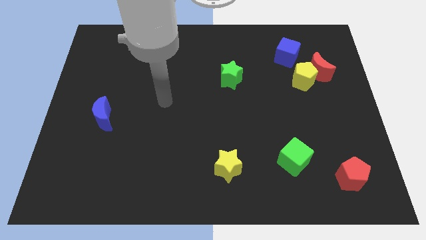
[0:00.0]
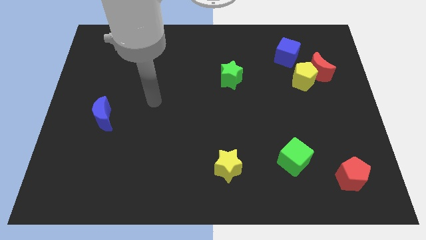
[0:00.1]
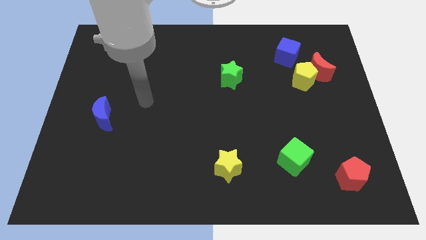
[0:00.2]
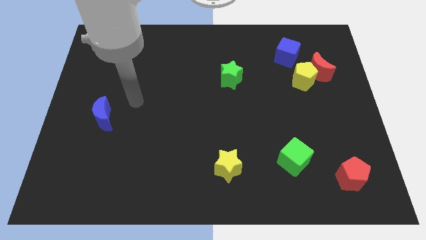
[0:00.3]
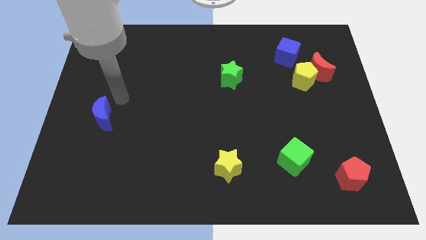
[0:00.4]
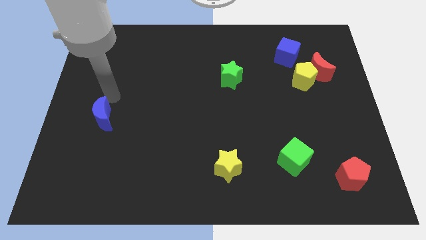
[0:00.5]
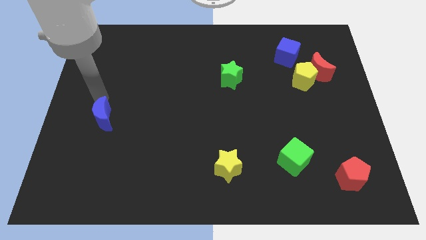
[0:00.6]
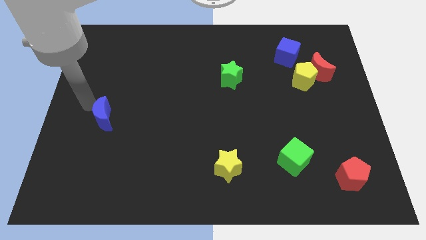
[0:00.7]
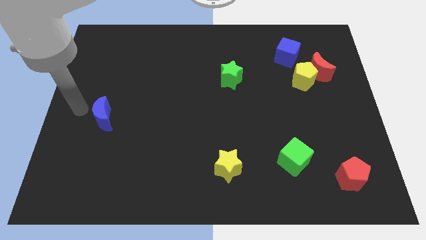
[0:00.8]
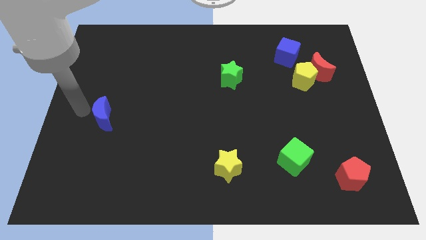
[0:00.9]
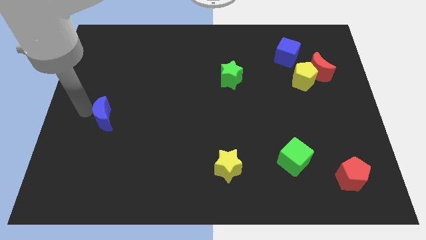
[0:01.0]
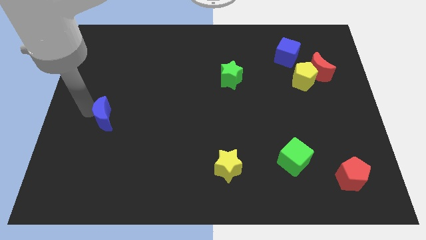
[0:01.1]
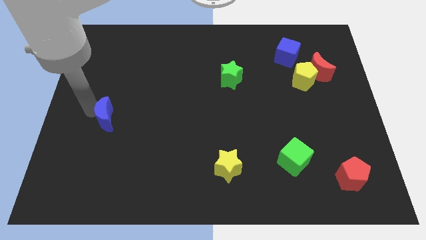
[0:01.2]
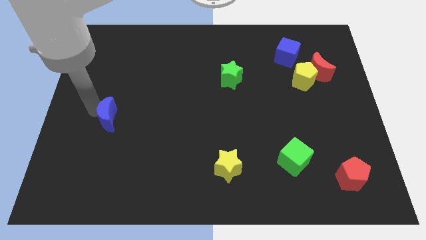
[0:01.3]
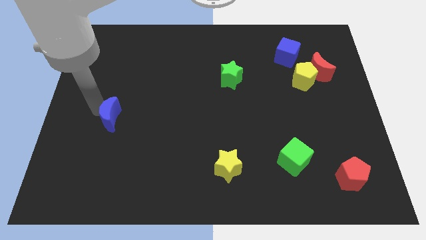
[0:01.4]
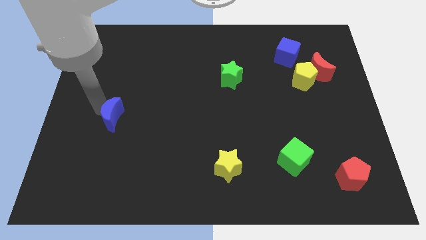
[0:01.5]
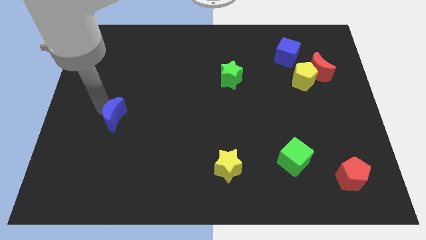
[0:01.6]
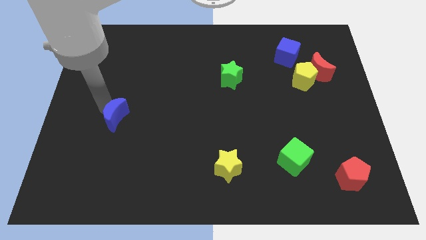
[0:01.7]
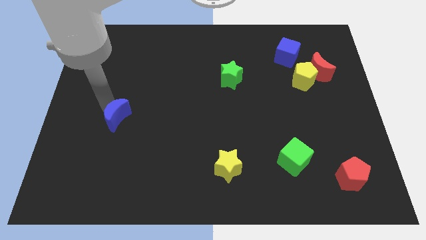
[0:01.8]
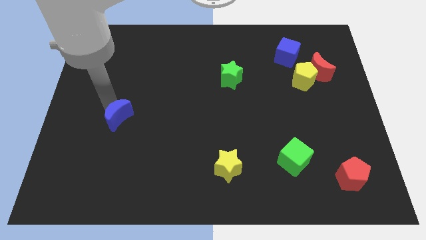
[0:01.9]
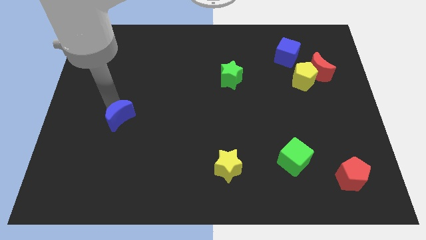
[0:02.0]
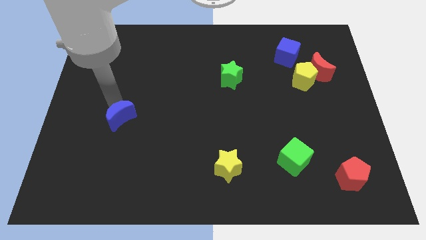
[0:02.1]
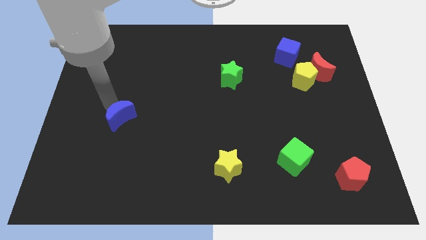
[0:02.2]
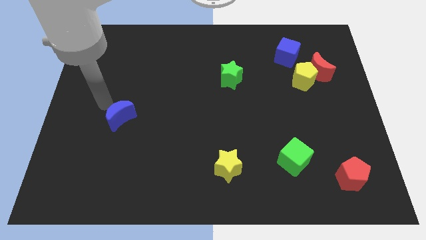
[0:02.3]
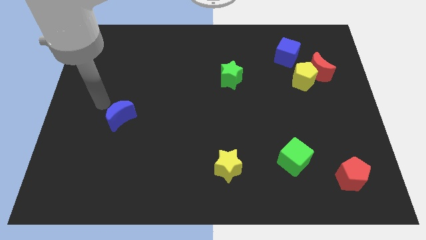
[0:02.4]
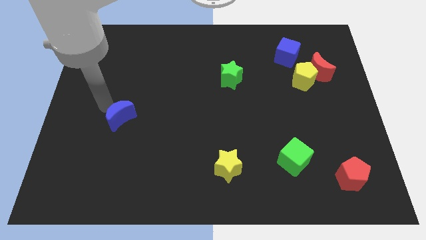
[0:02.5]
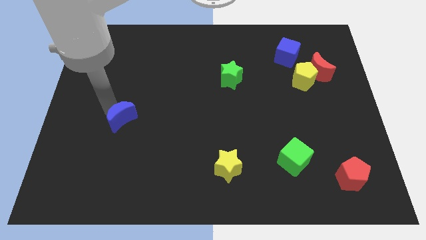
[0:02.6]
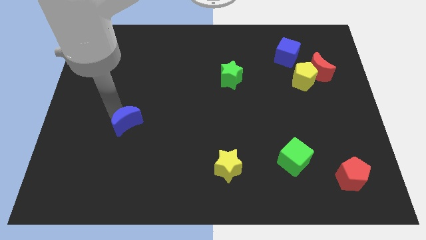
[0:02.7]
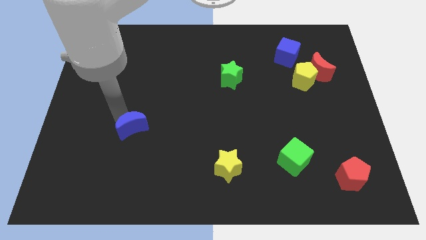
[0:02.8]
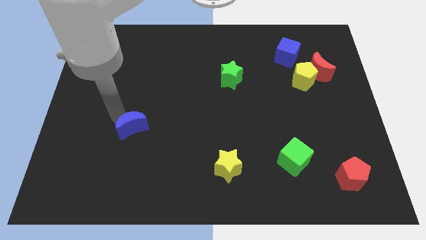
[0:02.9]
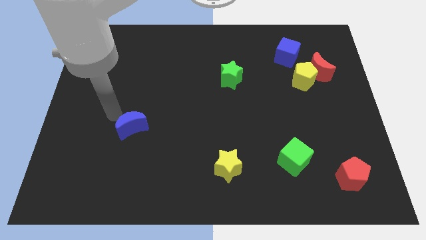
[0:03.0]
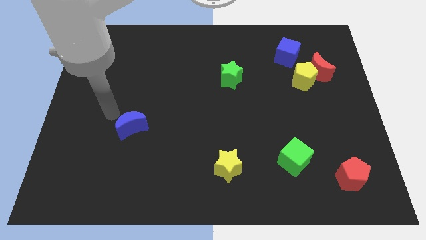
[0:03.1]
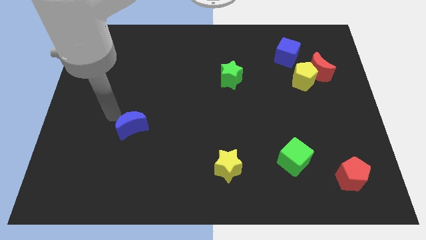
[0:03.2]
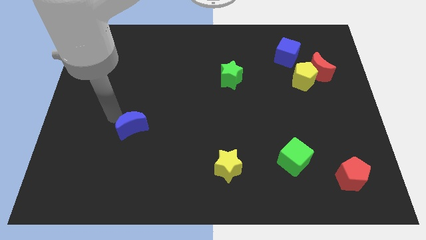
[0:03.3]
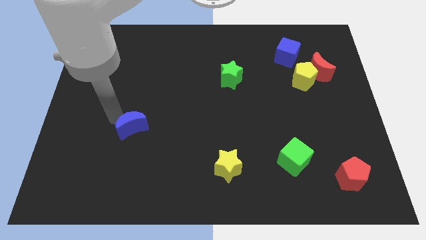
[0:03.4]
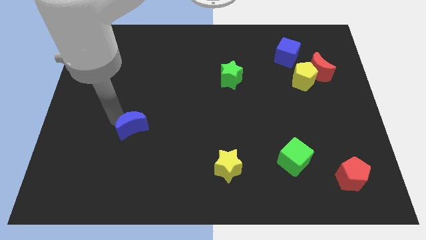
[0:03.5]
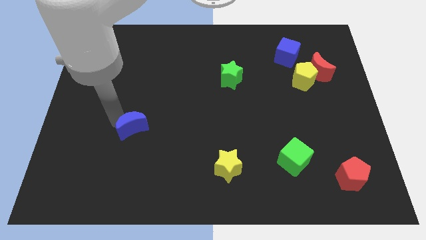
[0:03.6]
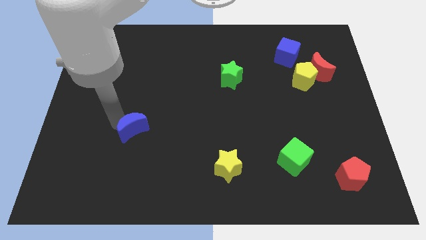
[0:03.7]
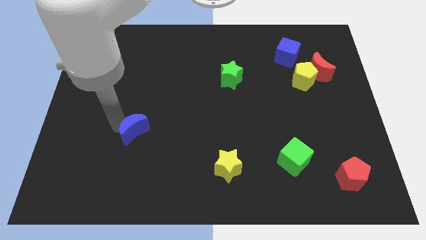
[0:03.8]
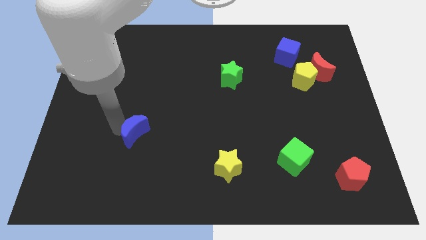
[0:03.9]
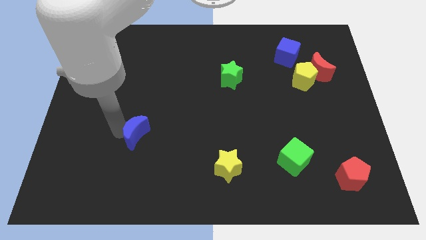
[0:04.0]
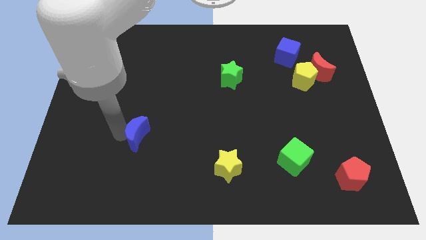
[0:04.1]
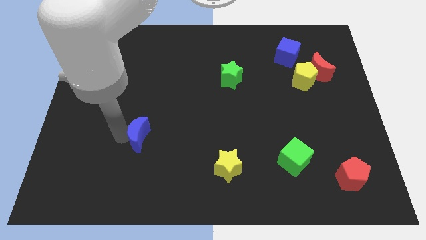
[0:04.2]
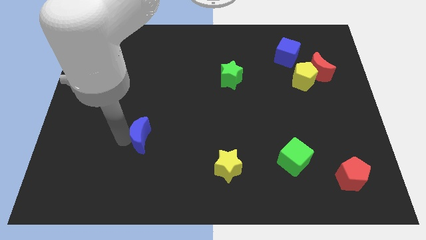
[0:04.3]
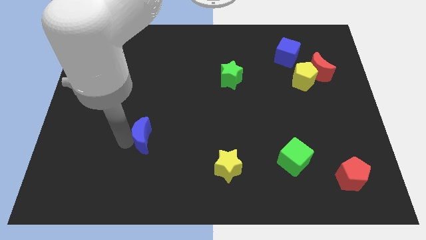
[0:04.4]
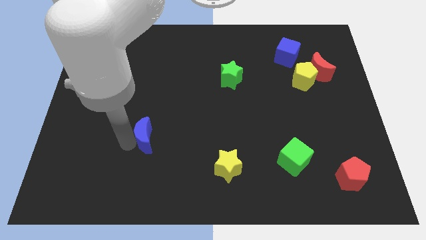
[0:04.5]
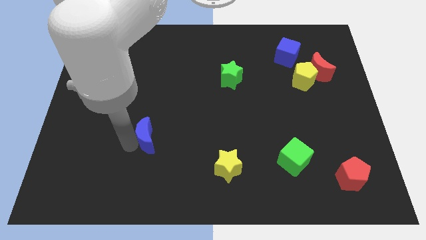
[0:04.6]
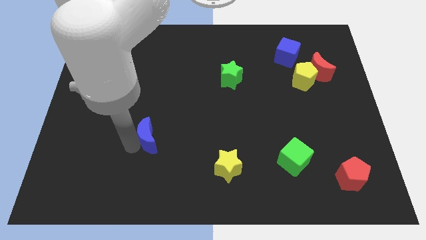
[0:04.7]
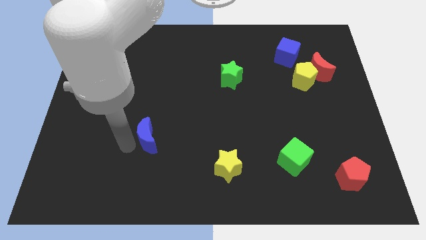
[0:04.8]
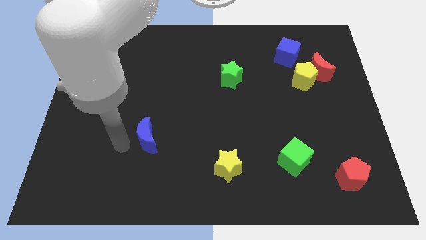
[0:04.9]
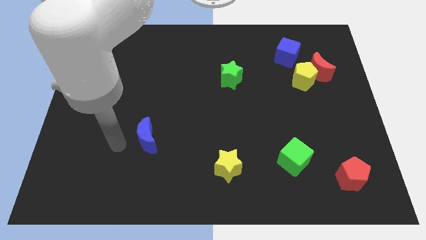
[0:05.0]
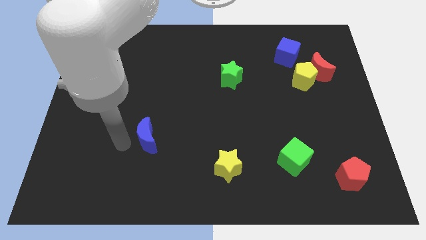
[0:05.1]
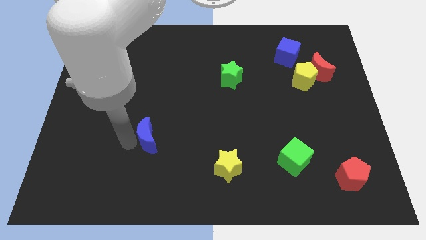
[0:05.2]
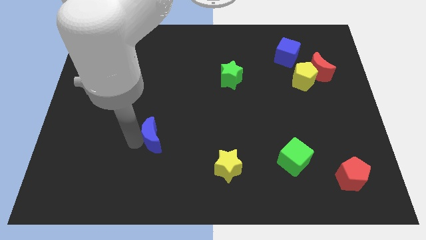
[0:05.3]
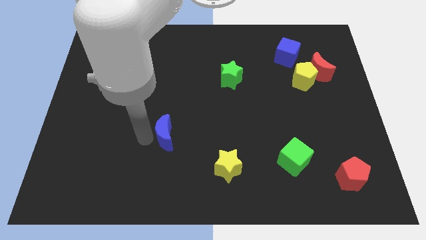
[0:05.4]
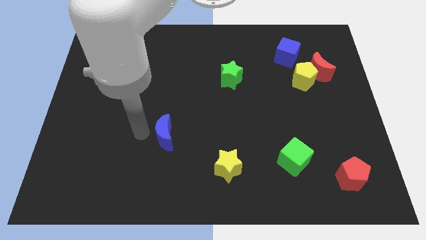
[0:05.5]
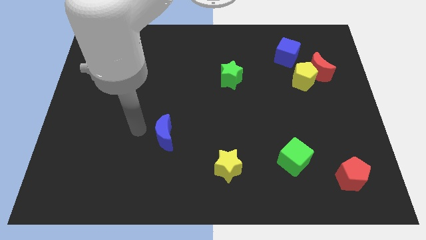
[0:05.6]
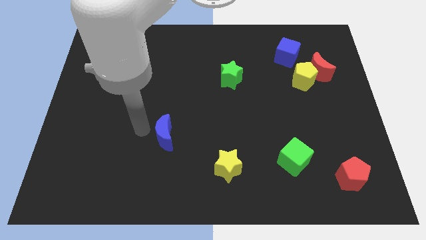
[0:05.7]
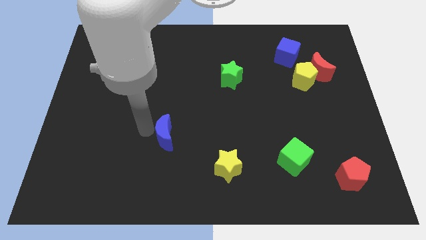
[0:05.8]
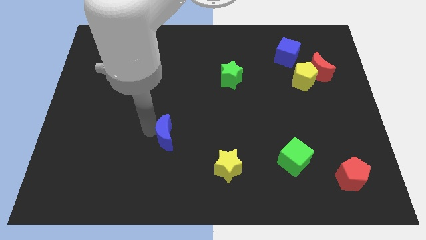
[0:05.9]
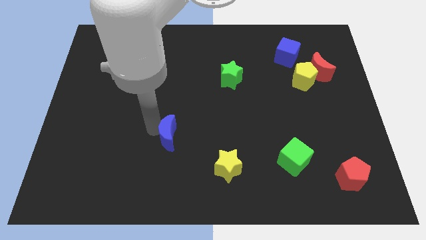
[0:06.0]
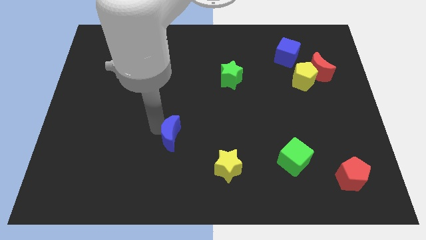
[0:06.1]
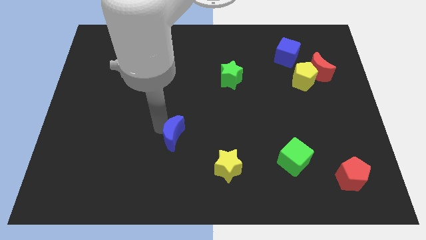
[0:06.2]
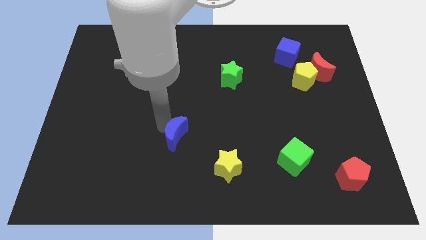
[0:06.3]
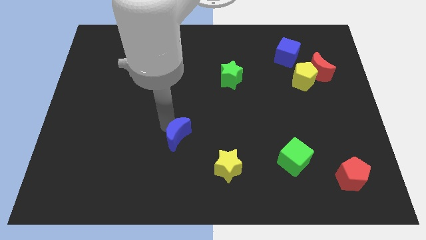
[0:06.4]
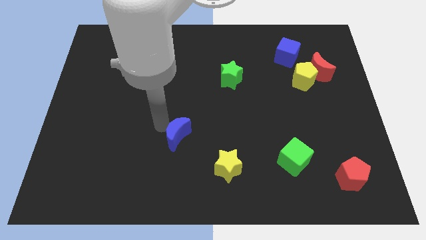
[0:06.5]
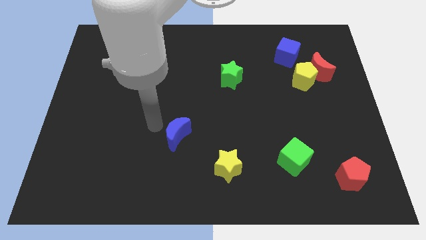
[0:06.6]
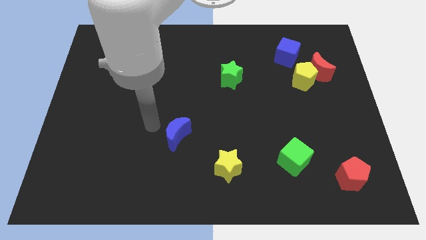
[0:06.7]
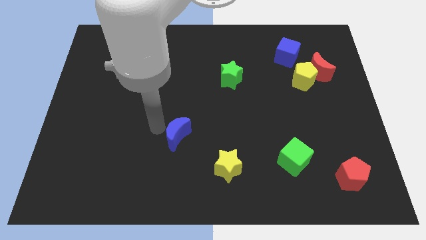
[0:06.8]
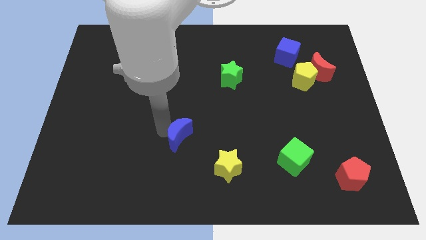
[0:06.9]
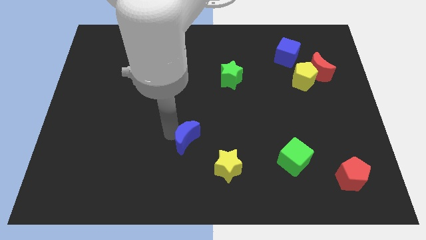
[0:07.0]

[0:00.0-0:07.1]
push the blue moon diagonally up and to the left of the yellow star

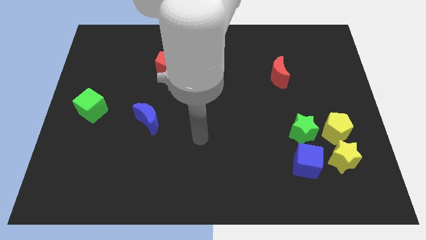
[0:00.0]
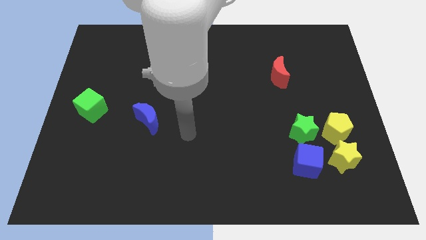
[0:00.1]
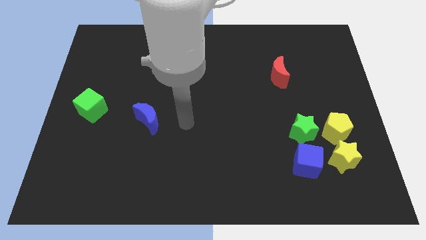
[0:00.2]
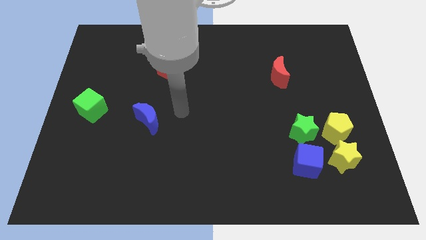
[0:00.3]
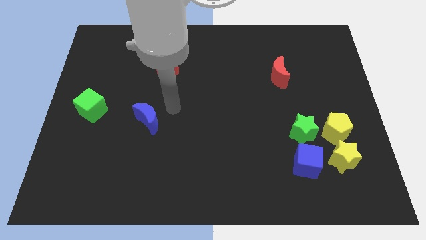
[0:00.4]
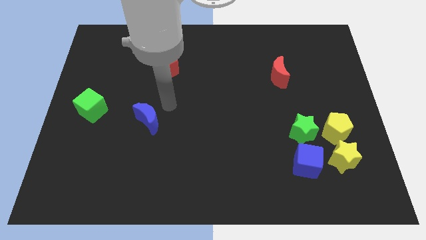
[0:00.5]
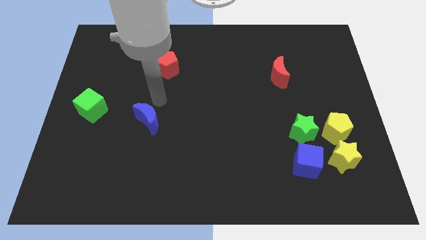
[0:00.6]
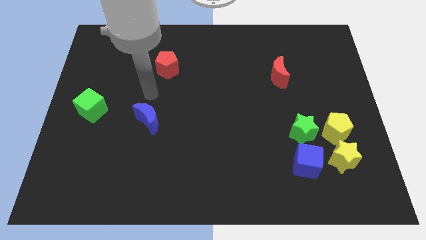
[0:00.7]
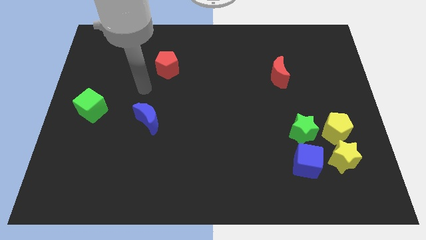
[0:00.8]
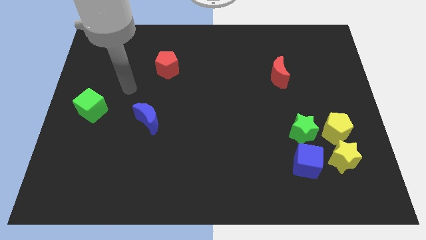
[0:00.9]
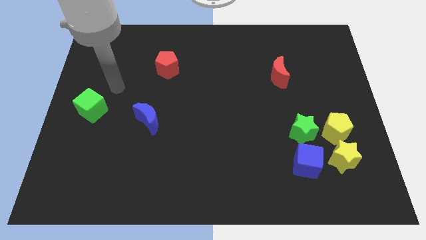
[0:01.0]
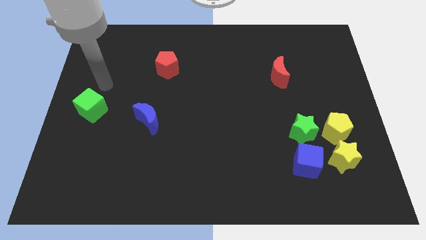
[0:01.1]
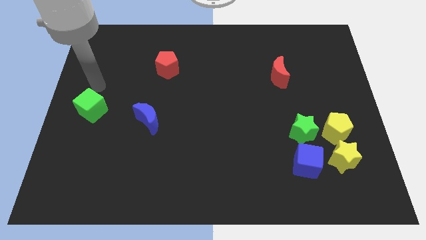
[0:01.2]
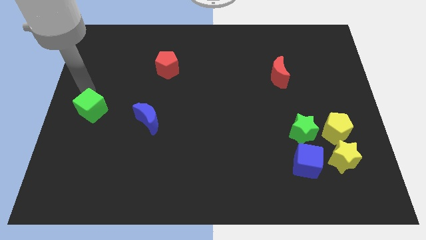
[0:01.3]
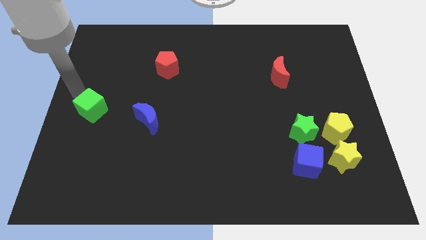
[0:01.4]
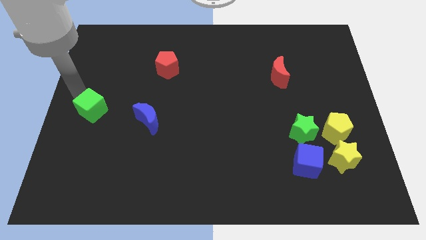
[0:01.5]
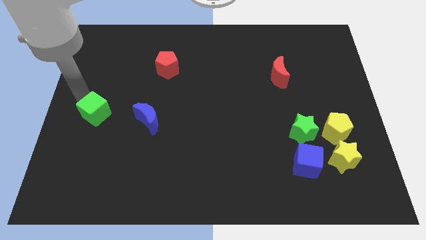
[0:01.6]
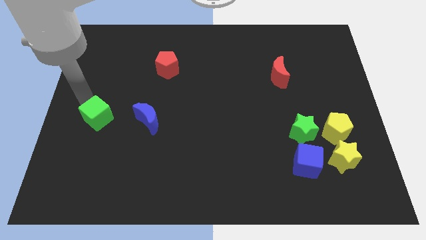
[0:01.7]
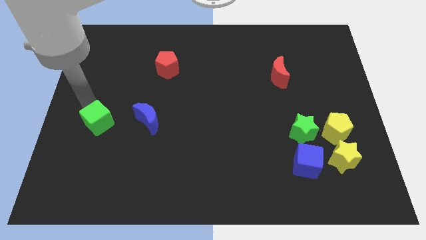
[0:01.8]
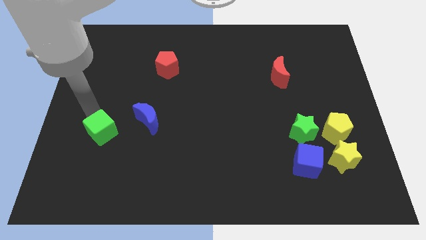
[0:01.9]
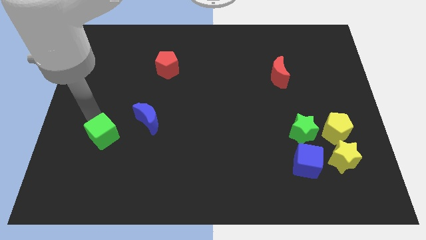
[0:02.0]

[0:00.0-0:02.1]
move the green cube to the bottom left of the blue moon
